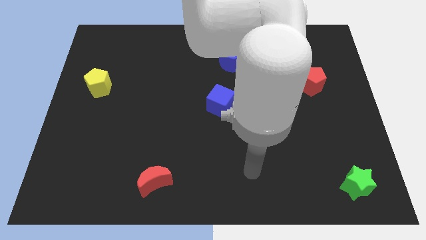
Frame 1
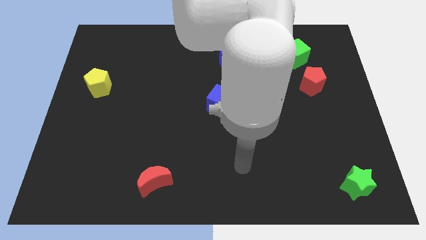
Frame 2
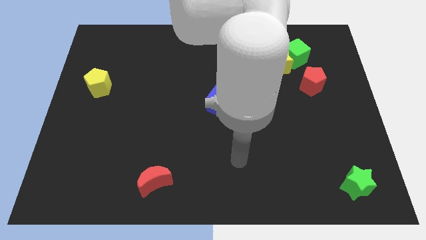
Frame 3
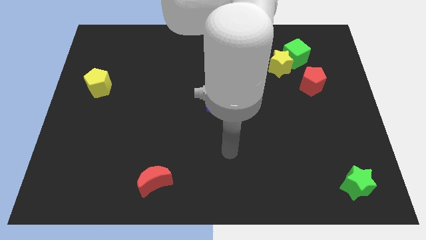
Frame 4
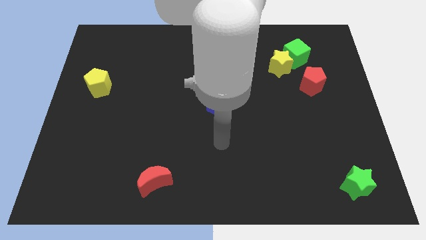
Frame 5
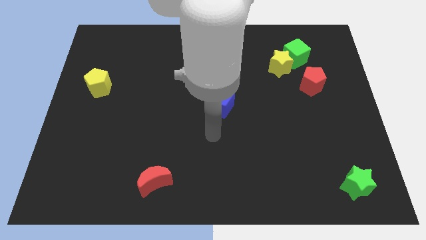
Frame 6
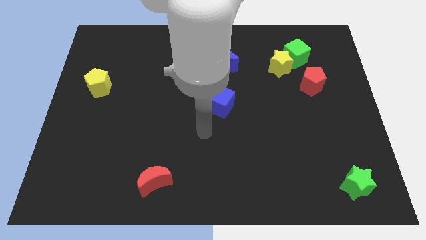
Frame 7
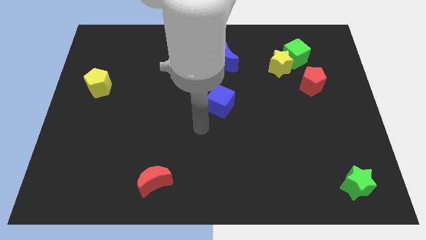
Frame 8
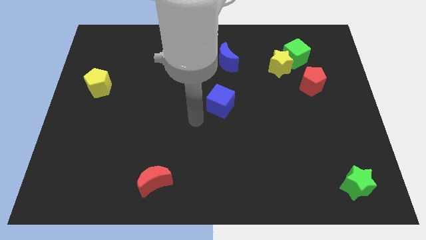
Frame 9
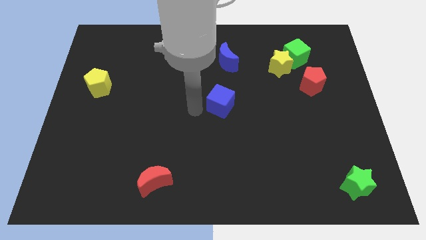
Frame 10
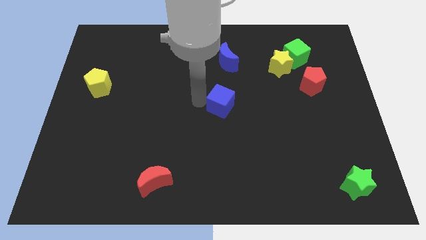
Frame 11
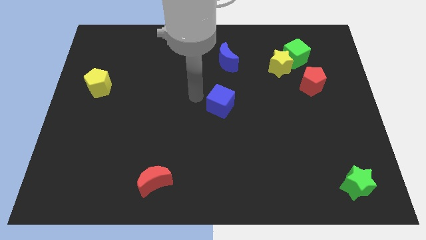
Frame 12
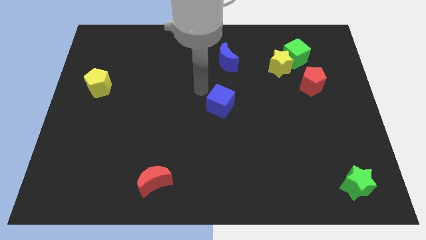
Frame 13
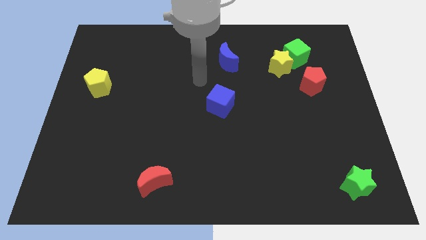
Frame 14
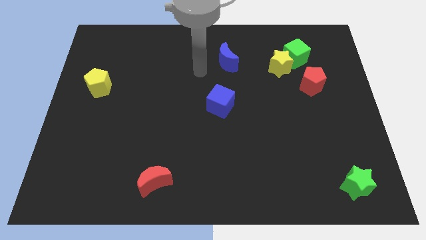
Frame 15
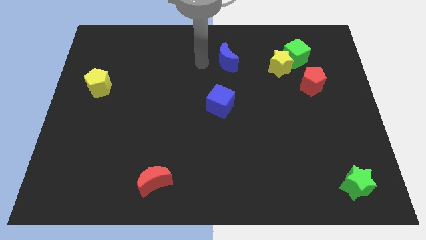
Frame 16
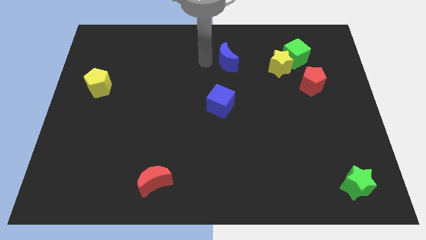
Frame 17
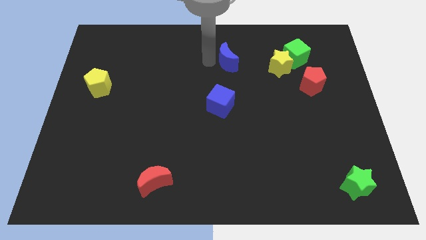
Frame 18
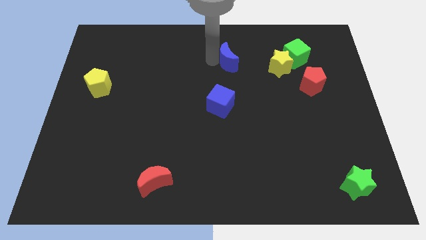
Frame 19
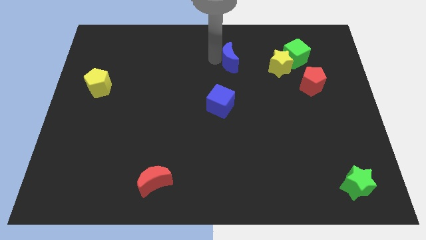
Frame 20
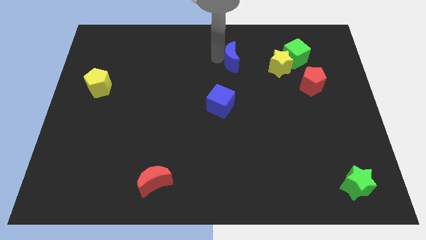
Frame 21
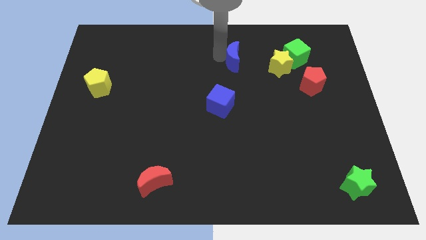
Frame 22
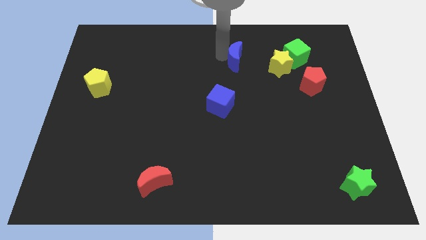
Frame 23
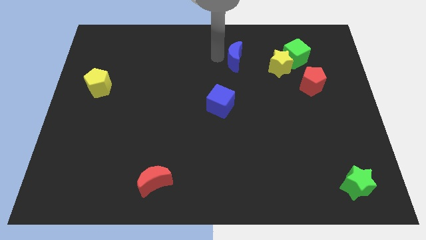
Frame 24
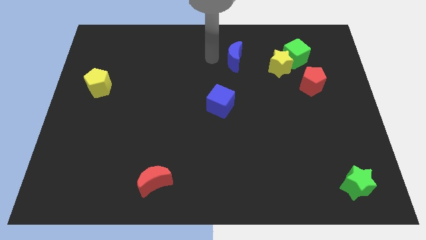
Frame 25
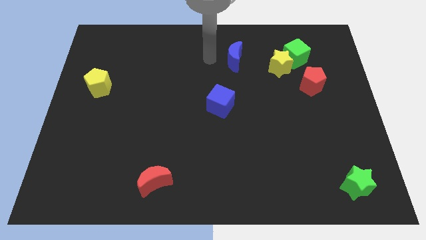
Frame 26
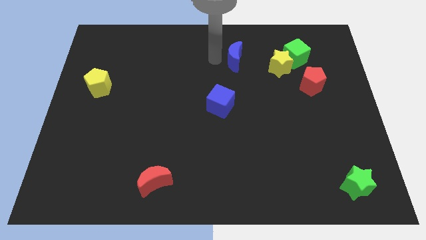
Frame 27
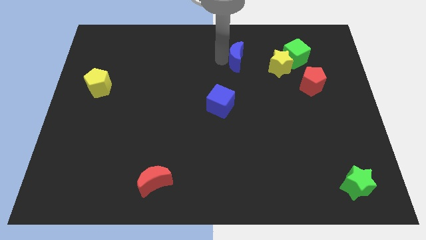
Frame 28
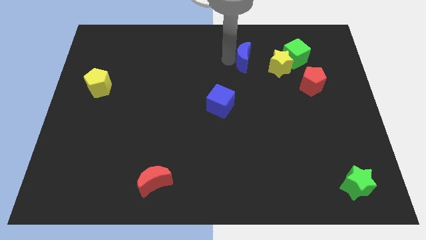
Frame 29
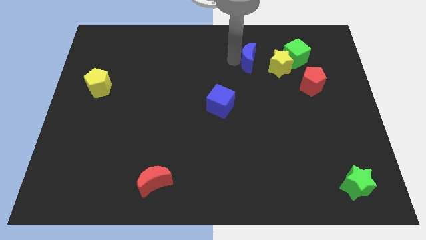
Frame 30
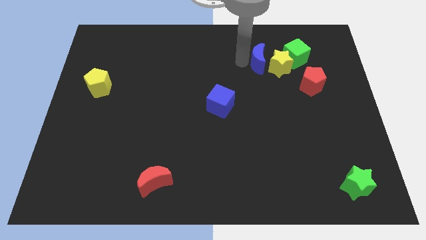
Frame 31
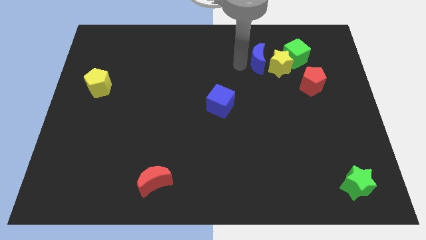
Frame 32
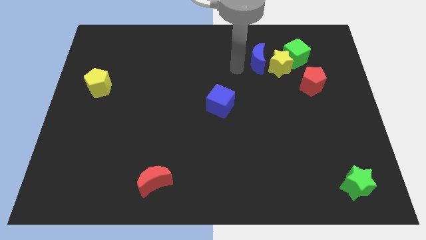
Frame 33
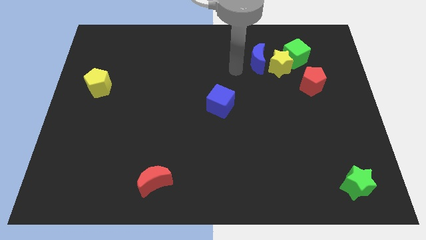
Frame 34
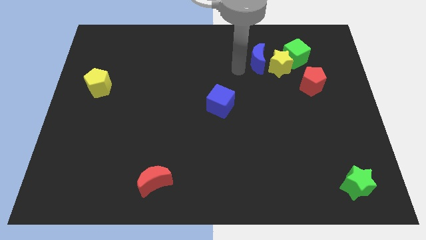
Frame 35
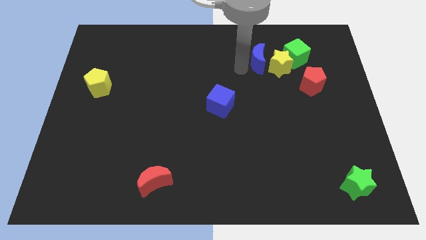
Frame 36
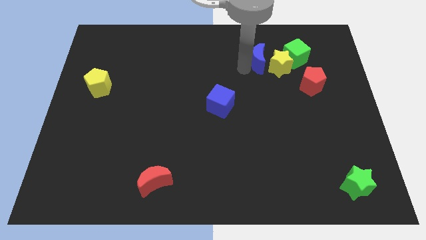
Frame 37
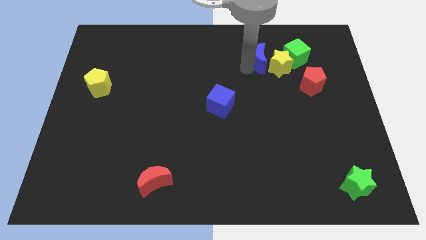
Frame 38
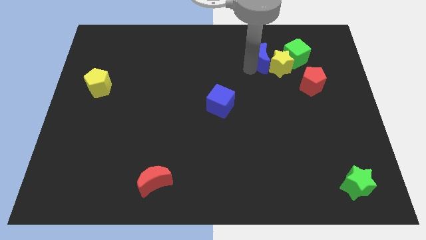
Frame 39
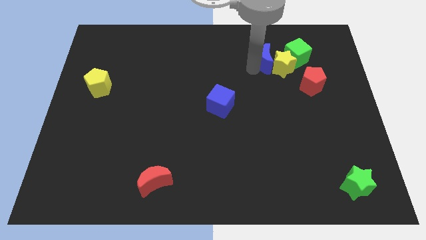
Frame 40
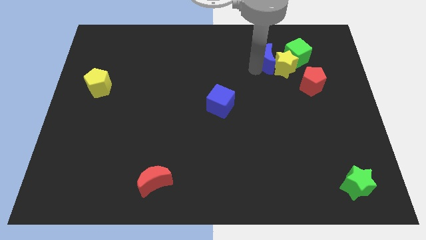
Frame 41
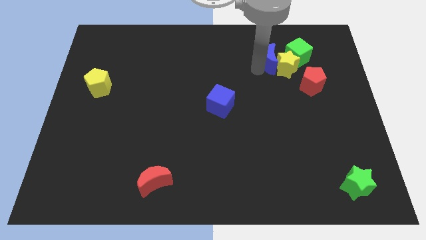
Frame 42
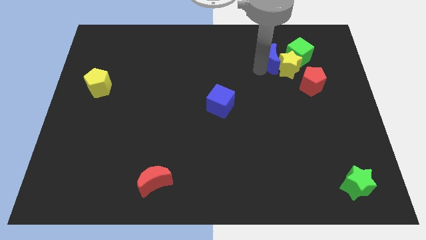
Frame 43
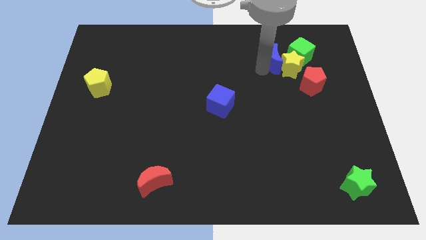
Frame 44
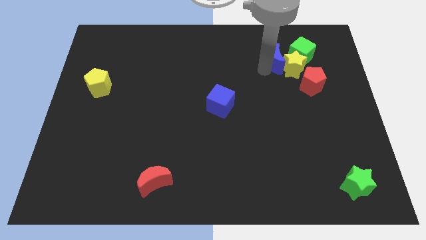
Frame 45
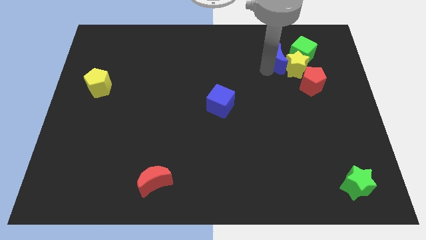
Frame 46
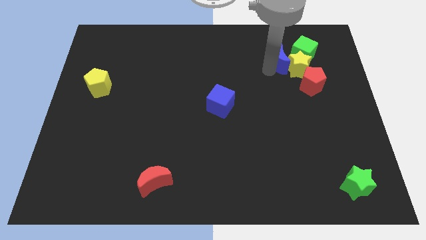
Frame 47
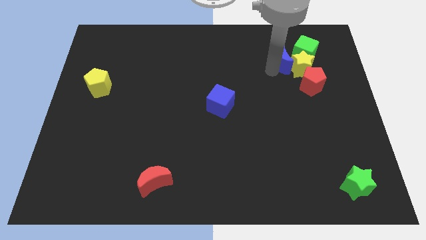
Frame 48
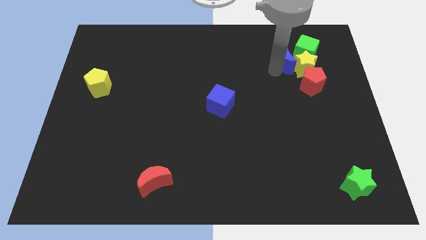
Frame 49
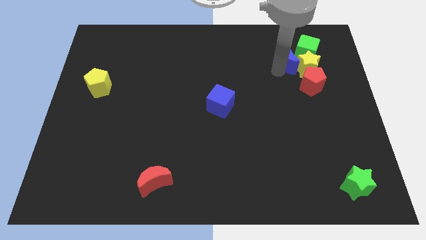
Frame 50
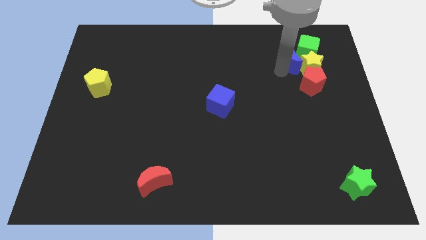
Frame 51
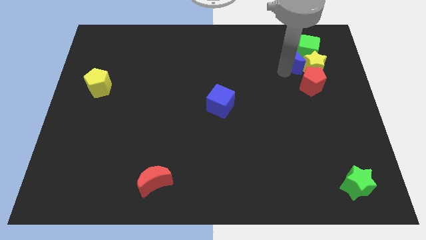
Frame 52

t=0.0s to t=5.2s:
put the blue moon to the green cube

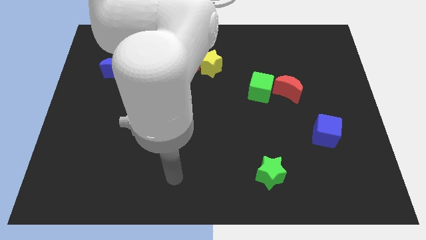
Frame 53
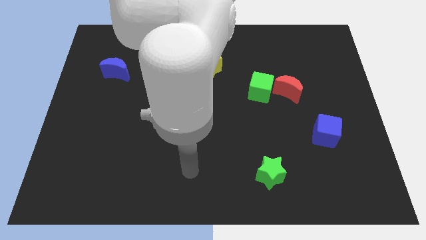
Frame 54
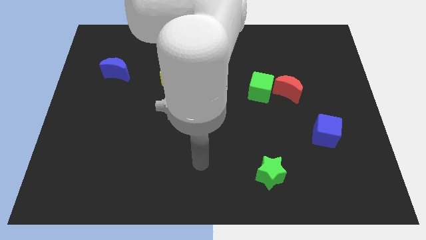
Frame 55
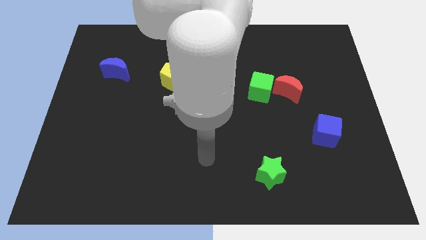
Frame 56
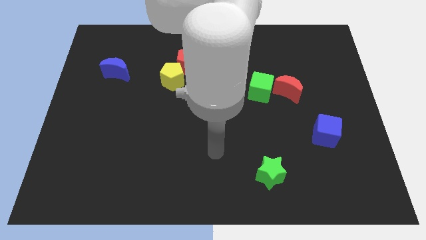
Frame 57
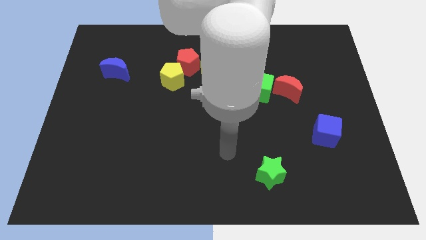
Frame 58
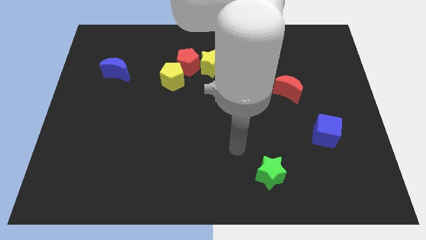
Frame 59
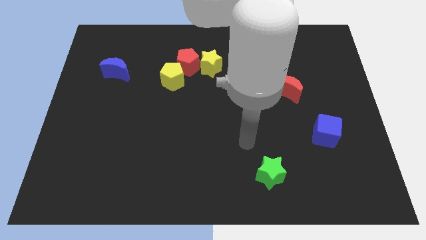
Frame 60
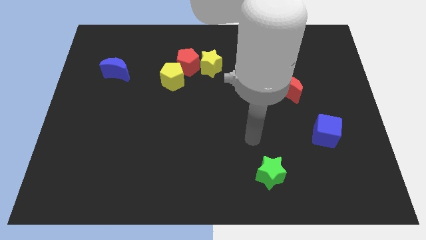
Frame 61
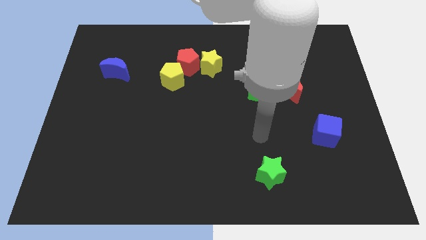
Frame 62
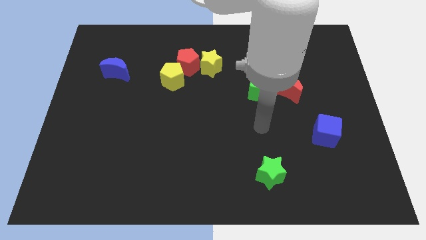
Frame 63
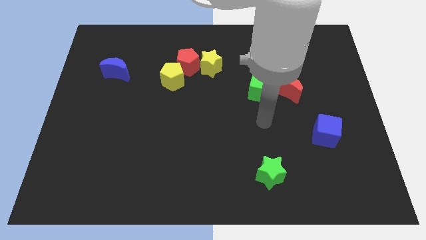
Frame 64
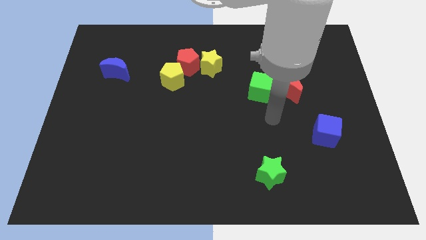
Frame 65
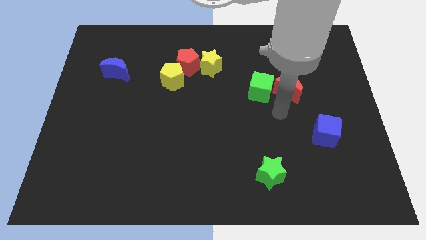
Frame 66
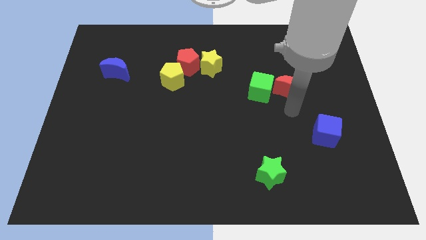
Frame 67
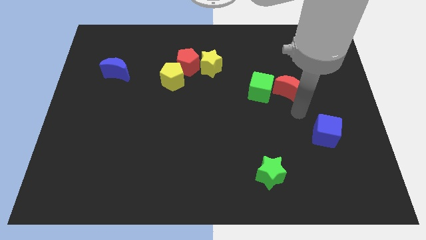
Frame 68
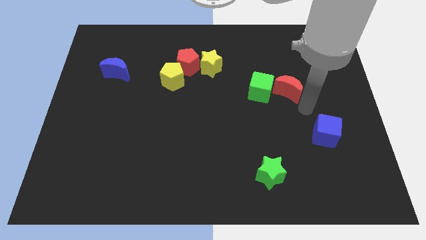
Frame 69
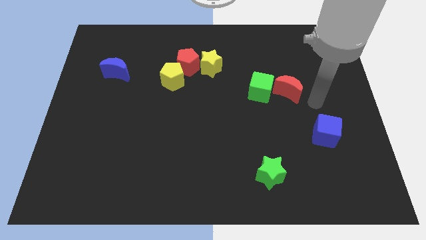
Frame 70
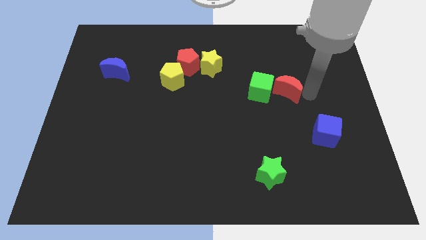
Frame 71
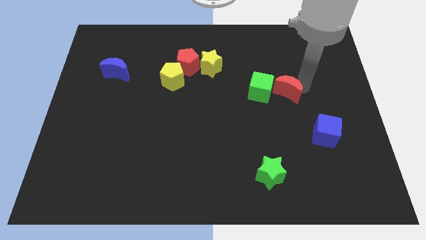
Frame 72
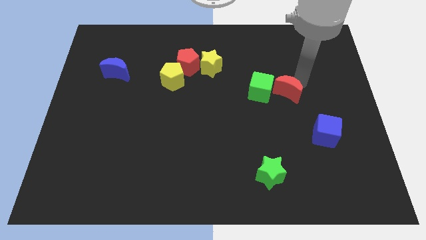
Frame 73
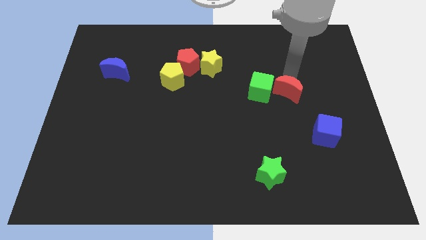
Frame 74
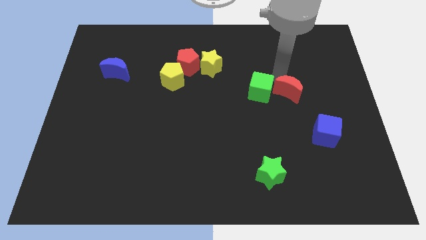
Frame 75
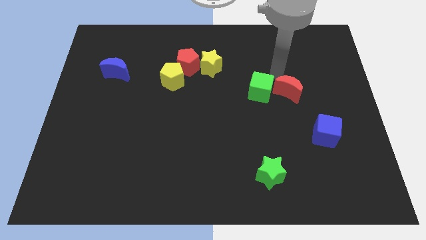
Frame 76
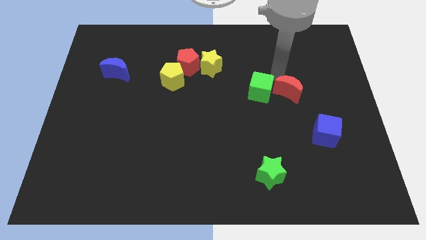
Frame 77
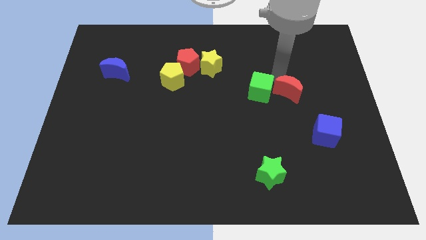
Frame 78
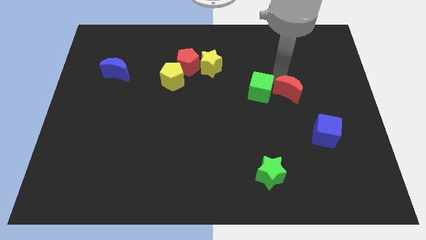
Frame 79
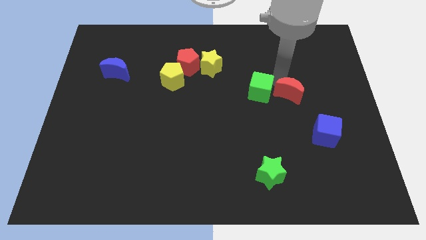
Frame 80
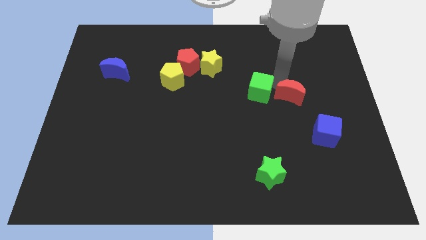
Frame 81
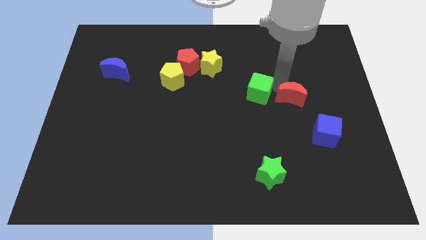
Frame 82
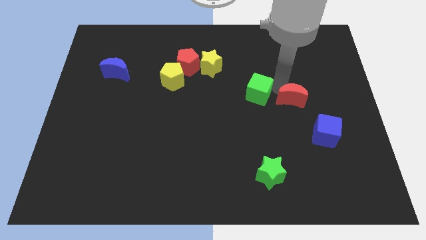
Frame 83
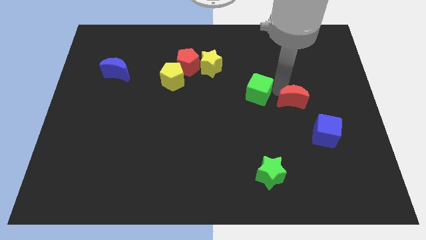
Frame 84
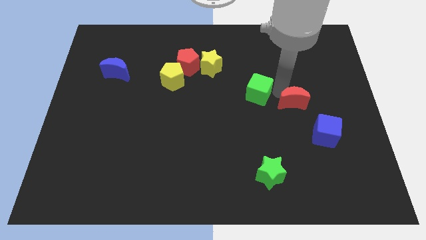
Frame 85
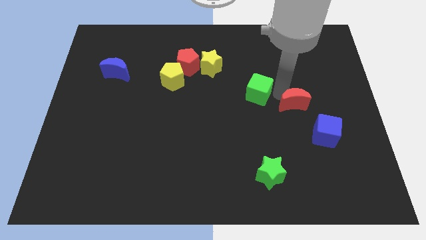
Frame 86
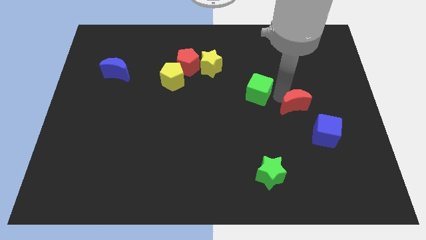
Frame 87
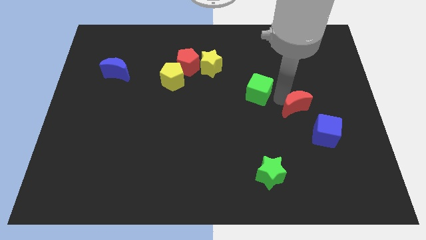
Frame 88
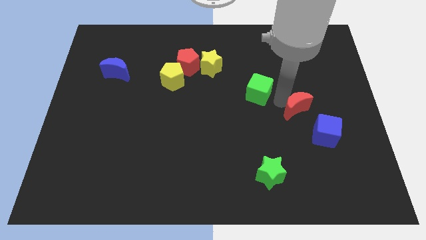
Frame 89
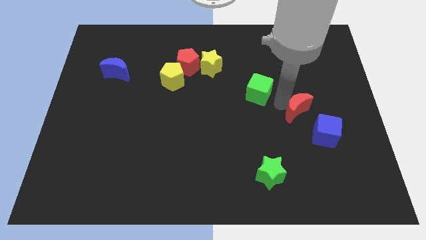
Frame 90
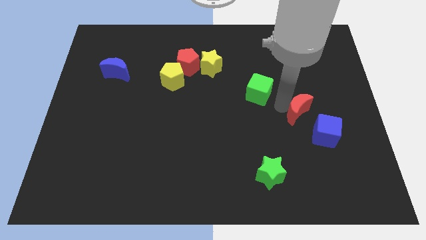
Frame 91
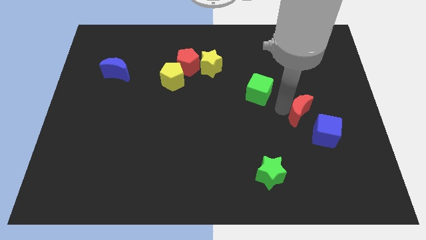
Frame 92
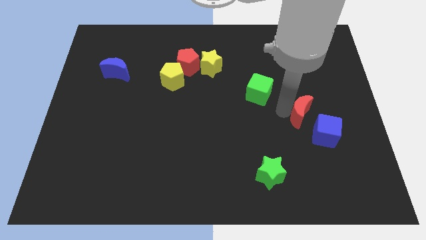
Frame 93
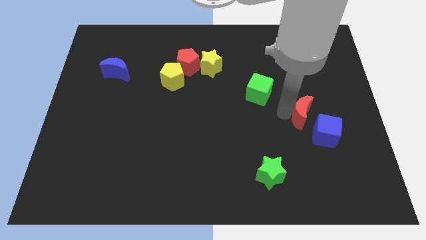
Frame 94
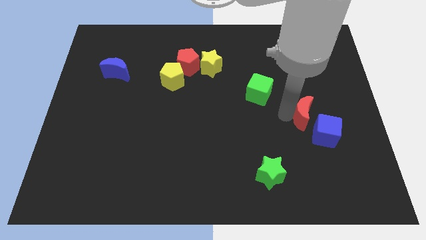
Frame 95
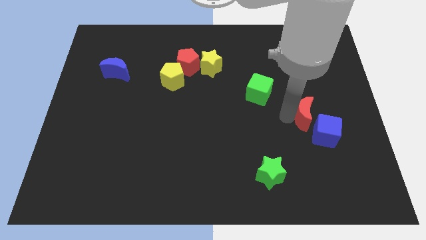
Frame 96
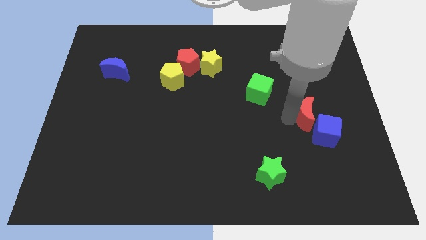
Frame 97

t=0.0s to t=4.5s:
slide the red moon next to the blue cube
